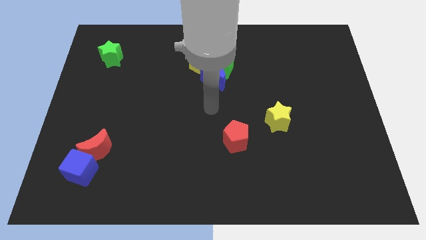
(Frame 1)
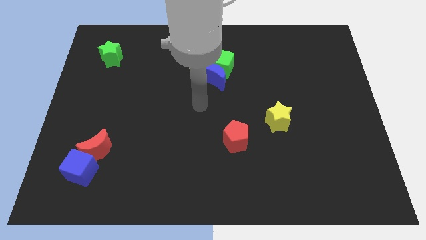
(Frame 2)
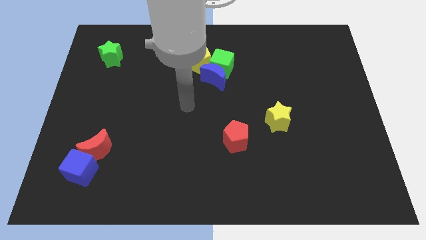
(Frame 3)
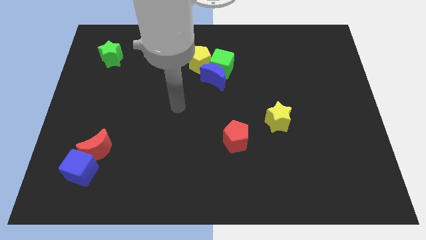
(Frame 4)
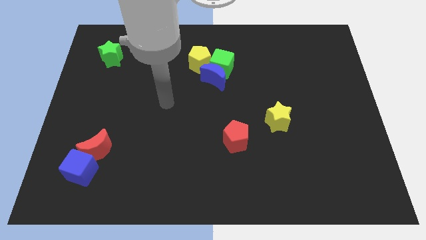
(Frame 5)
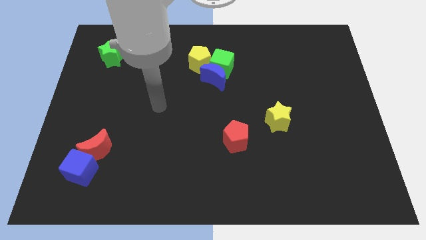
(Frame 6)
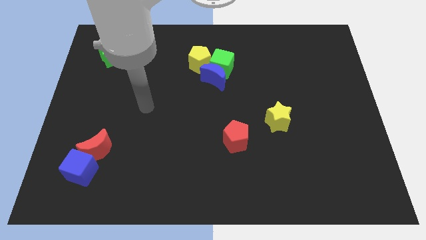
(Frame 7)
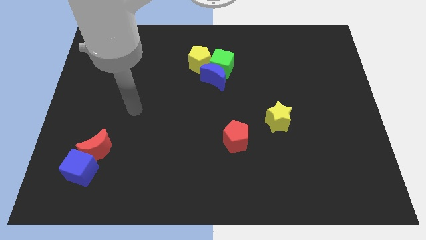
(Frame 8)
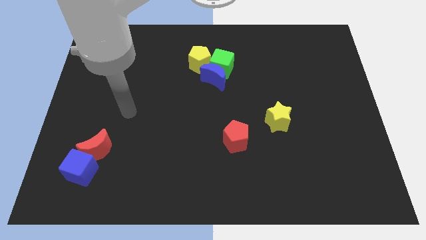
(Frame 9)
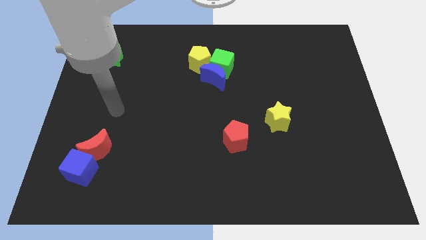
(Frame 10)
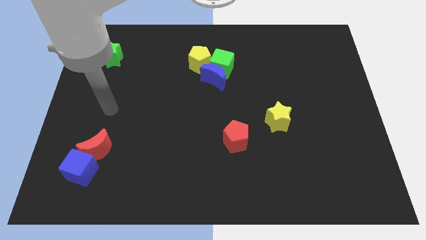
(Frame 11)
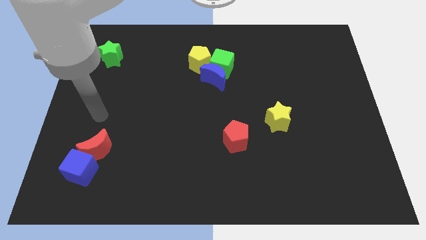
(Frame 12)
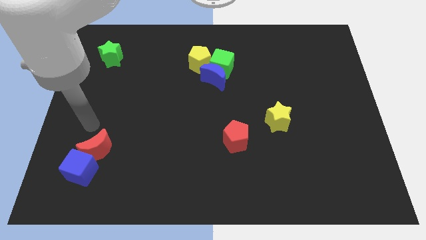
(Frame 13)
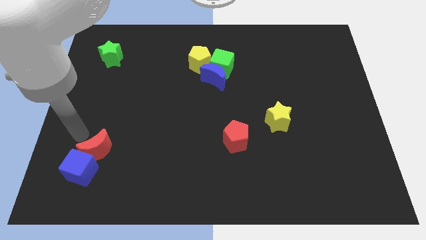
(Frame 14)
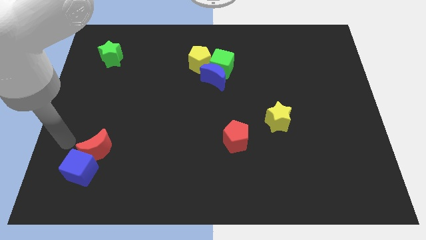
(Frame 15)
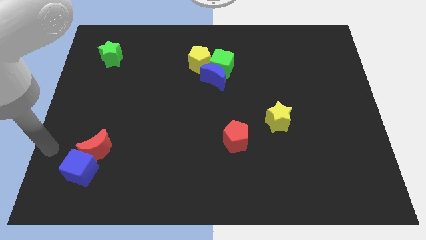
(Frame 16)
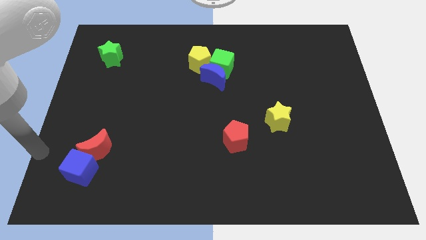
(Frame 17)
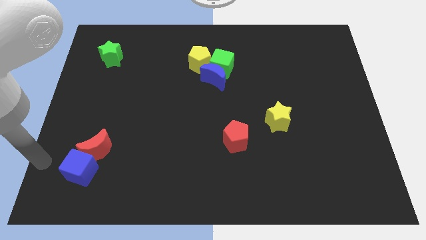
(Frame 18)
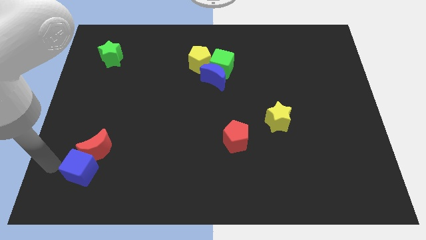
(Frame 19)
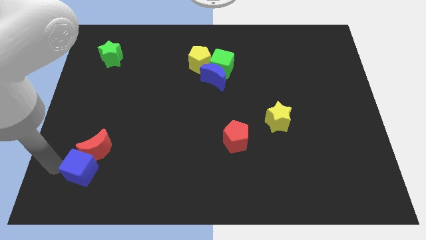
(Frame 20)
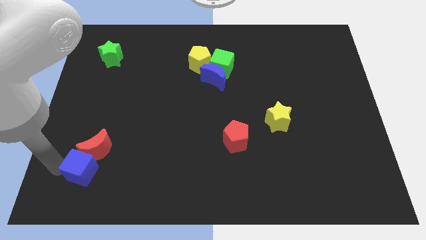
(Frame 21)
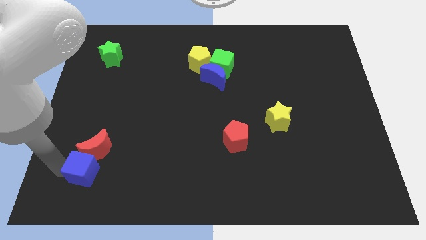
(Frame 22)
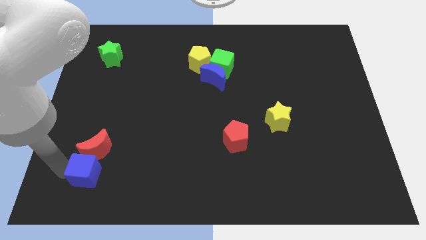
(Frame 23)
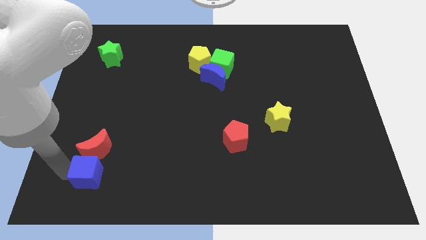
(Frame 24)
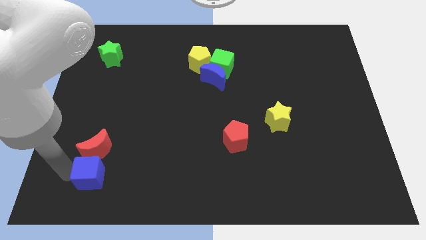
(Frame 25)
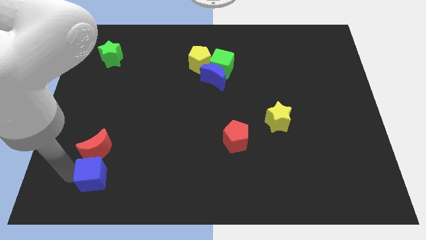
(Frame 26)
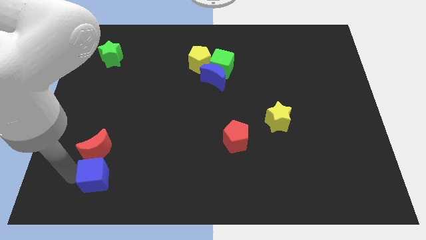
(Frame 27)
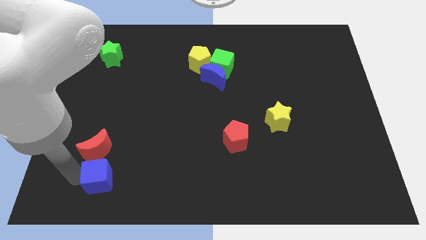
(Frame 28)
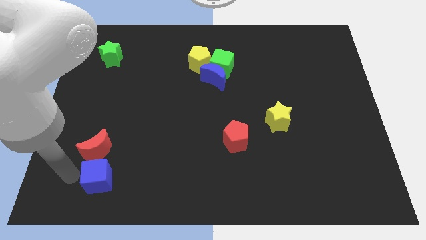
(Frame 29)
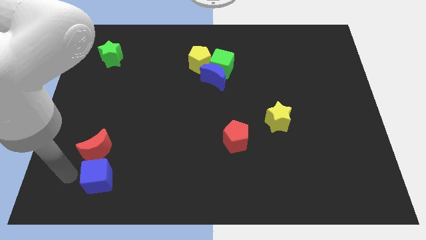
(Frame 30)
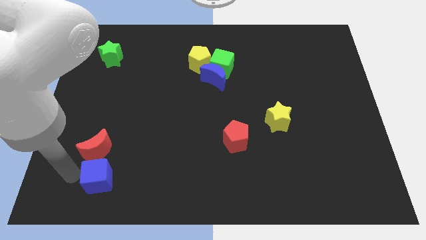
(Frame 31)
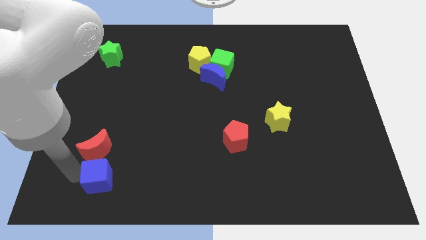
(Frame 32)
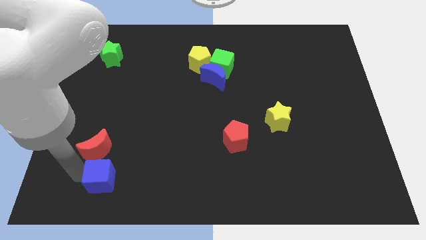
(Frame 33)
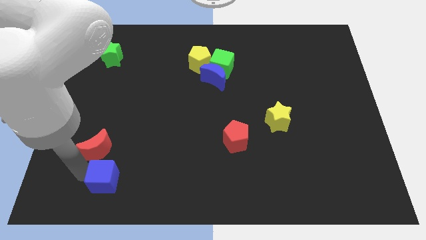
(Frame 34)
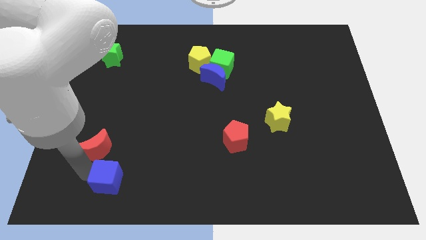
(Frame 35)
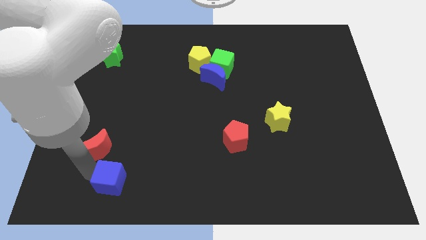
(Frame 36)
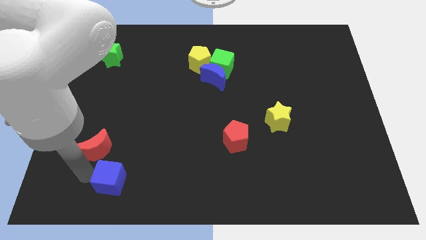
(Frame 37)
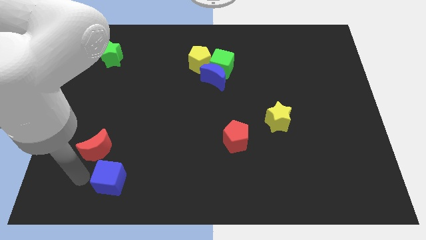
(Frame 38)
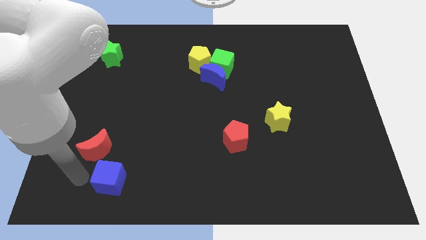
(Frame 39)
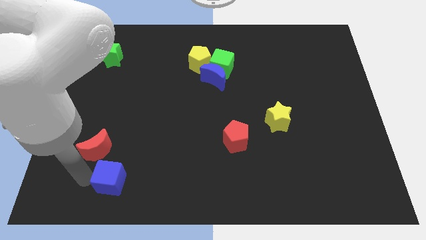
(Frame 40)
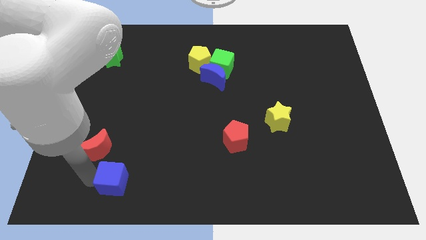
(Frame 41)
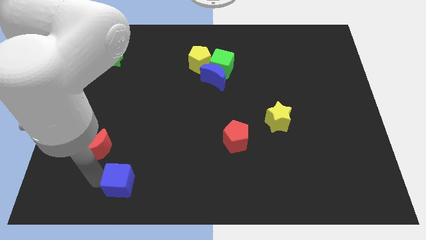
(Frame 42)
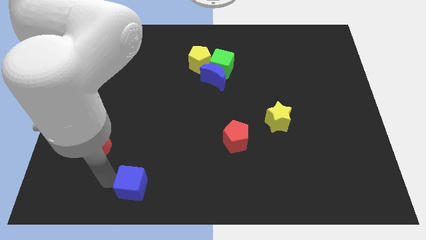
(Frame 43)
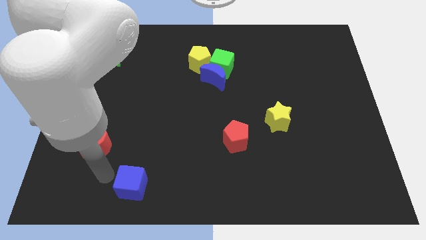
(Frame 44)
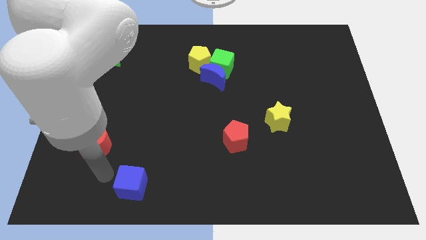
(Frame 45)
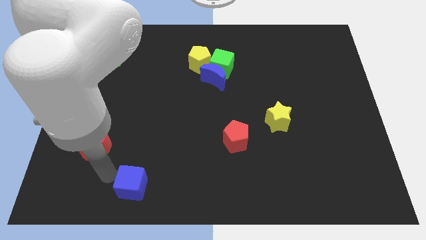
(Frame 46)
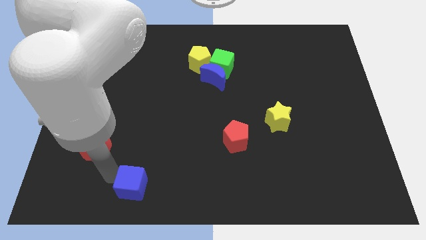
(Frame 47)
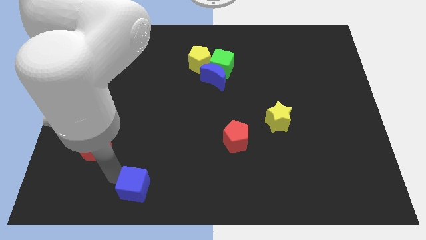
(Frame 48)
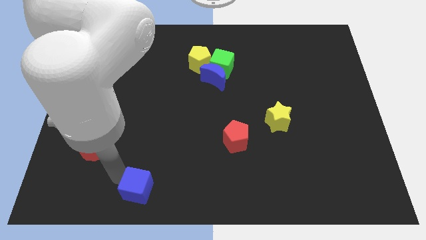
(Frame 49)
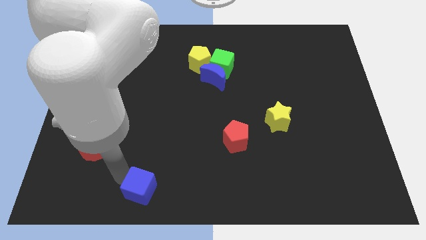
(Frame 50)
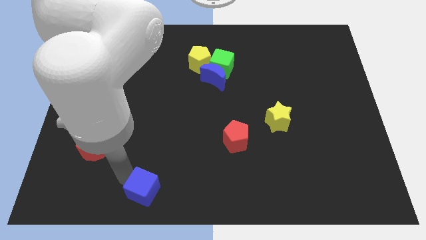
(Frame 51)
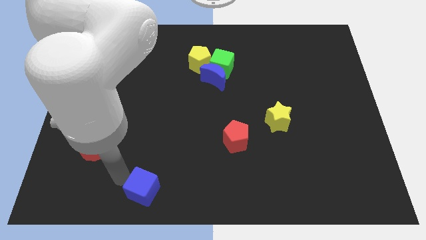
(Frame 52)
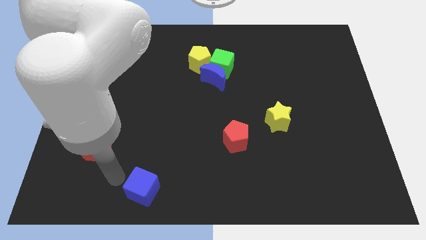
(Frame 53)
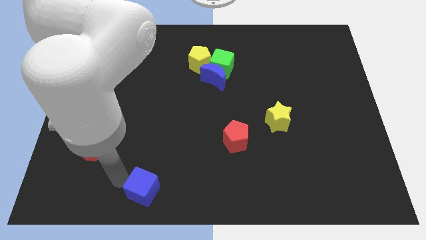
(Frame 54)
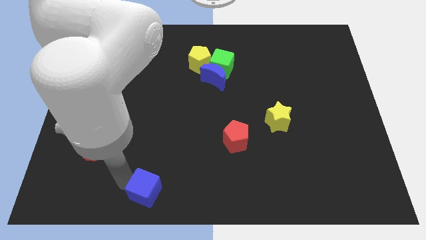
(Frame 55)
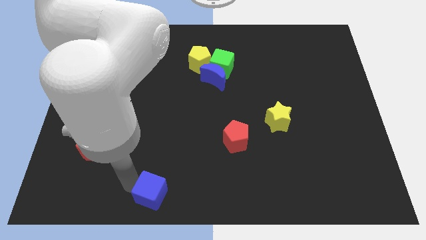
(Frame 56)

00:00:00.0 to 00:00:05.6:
push the blue cube to the bottom side

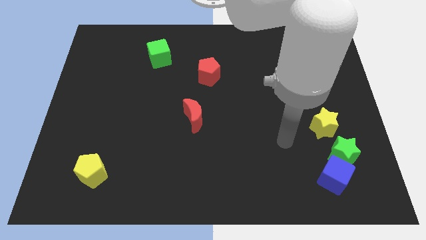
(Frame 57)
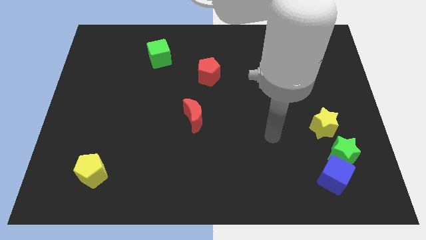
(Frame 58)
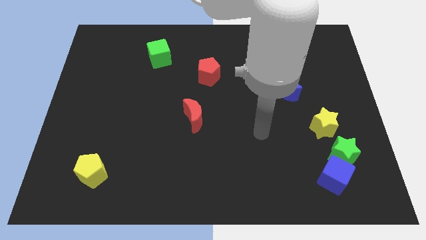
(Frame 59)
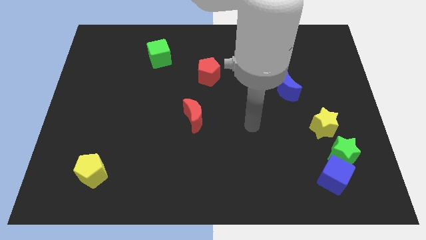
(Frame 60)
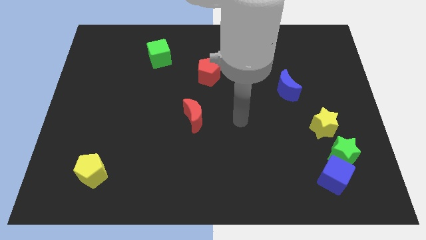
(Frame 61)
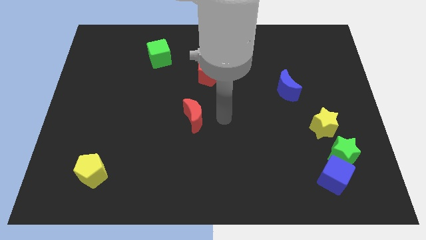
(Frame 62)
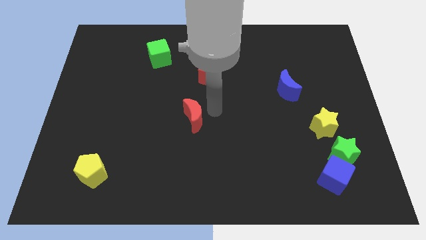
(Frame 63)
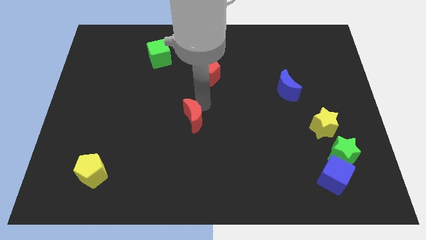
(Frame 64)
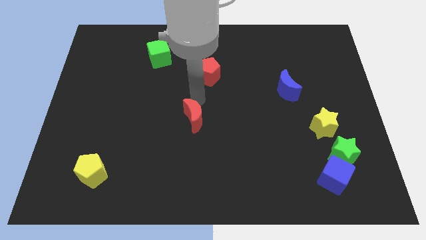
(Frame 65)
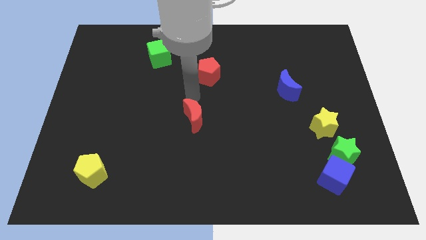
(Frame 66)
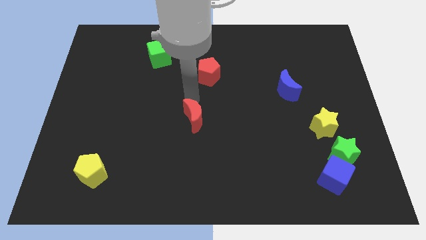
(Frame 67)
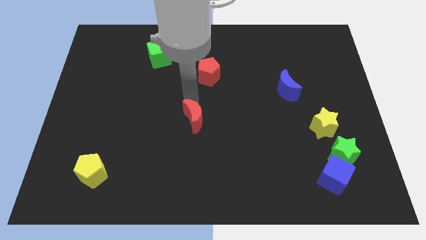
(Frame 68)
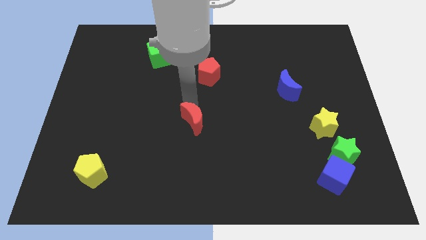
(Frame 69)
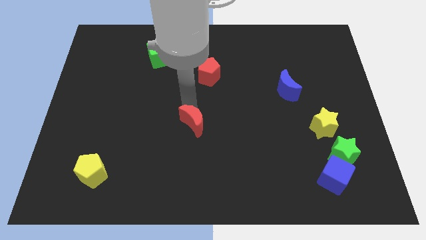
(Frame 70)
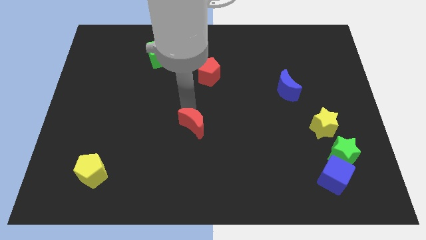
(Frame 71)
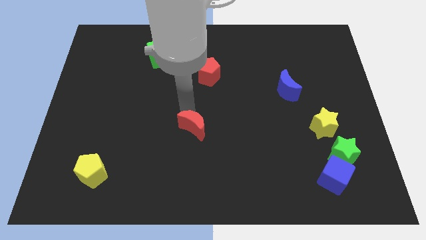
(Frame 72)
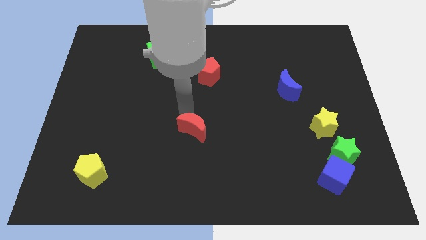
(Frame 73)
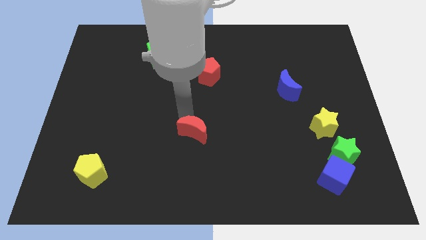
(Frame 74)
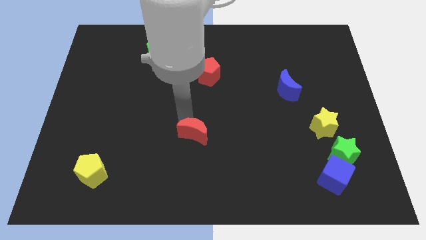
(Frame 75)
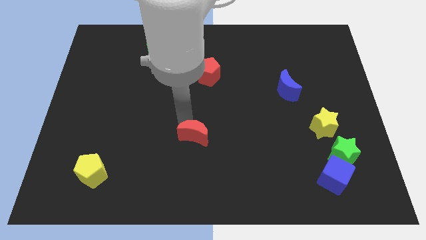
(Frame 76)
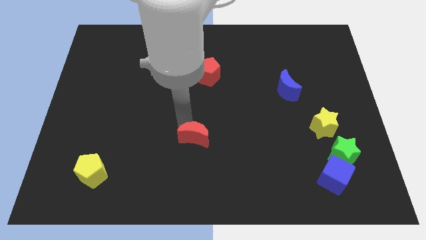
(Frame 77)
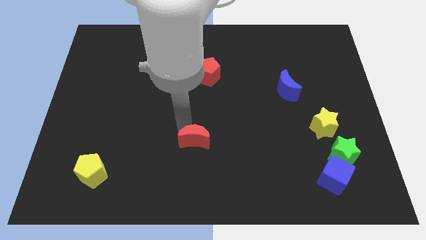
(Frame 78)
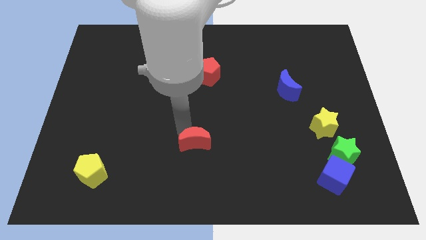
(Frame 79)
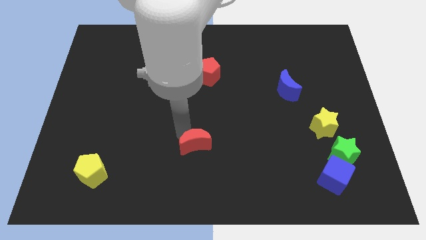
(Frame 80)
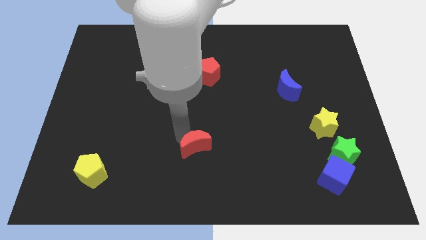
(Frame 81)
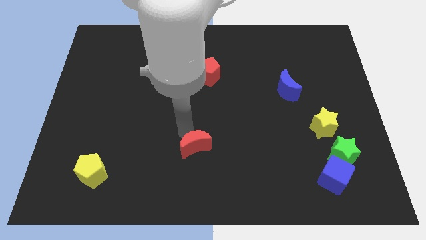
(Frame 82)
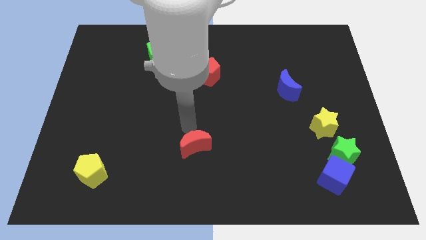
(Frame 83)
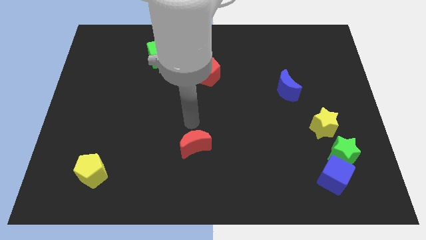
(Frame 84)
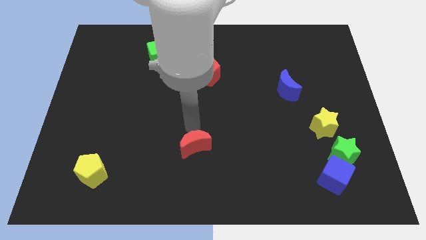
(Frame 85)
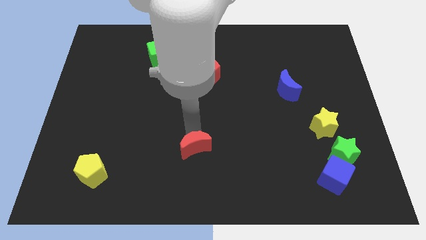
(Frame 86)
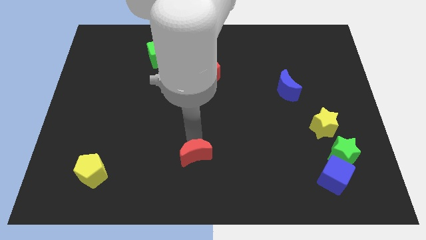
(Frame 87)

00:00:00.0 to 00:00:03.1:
push the red moon to the bottom side
